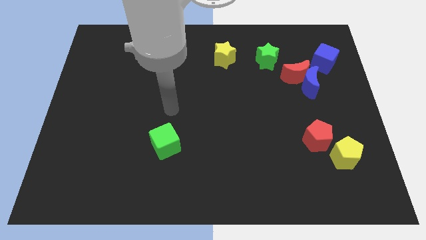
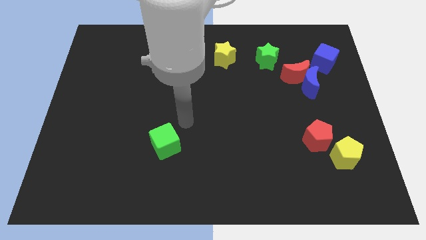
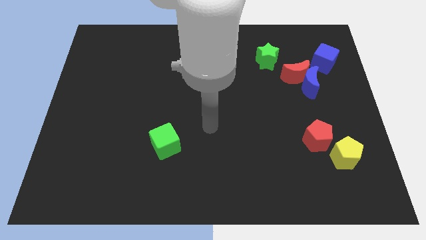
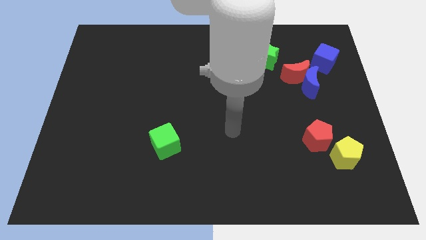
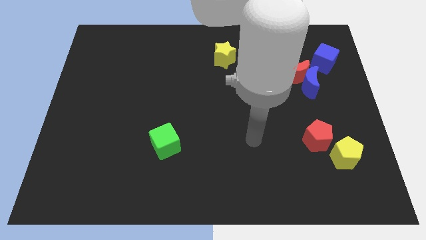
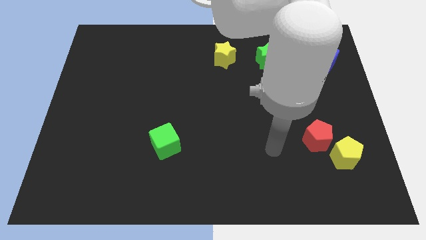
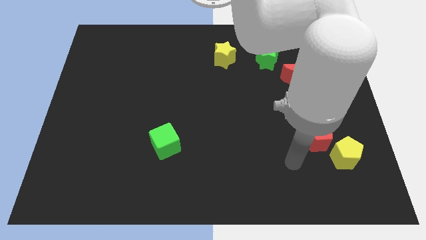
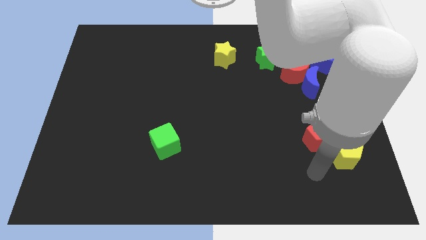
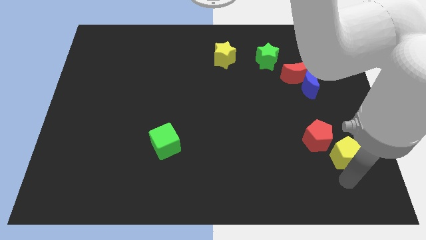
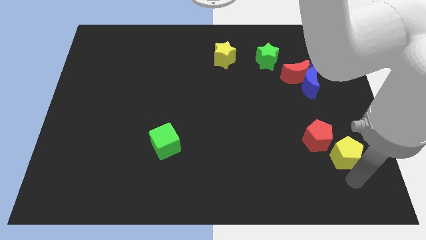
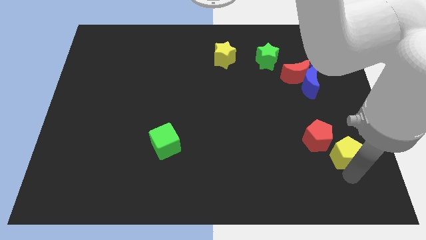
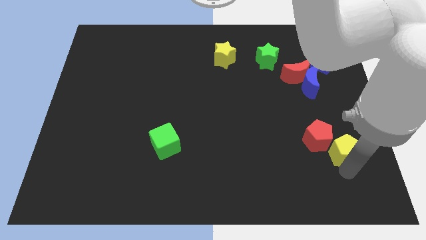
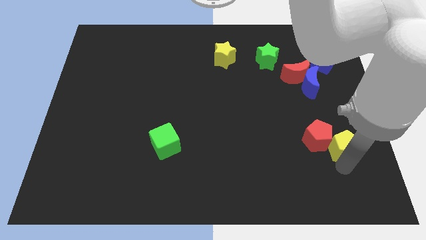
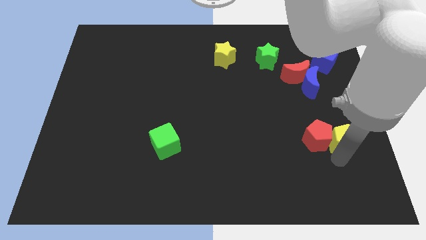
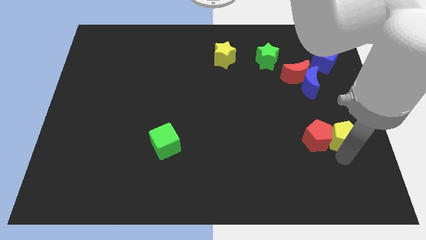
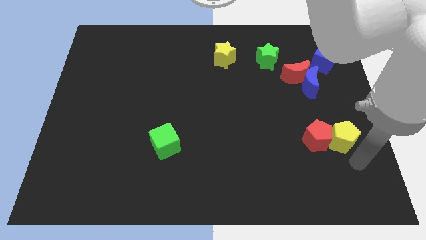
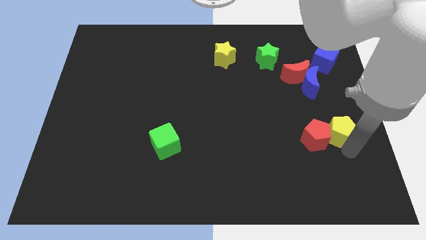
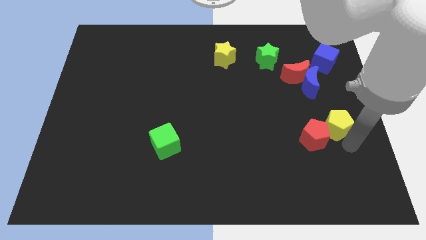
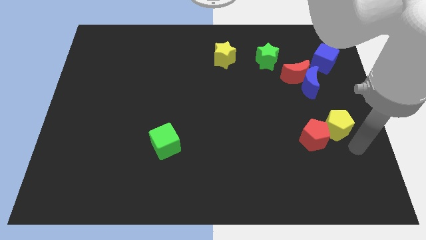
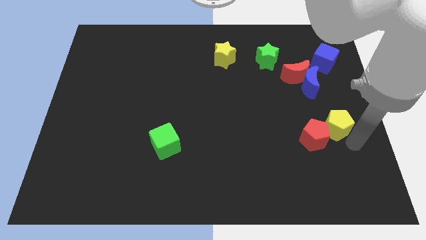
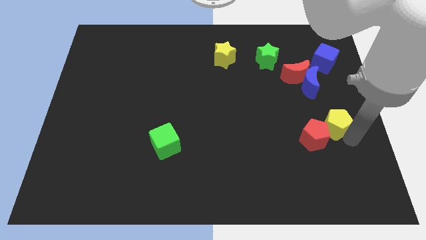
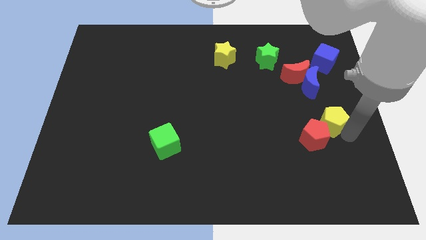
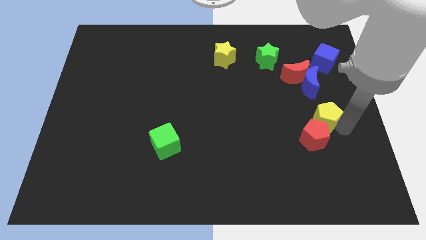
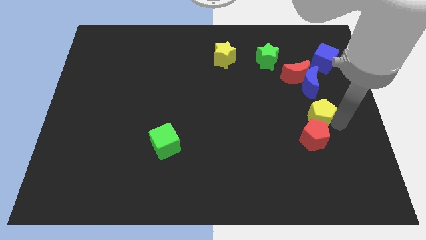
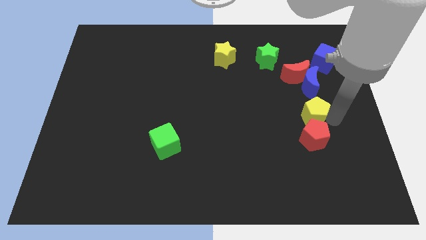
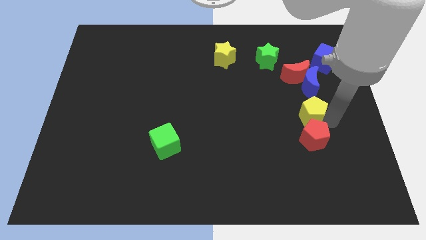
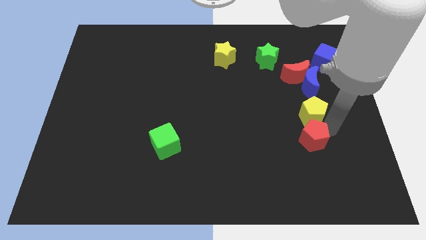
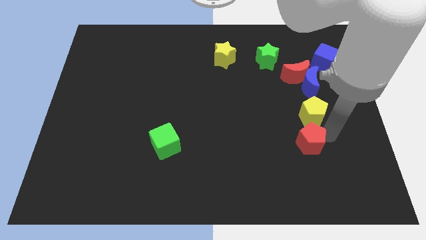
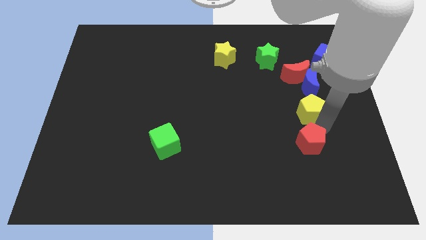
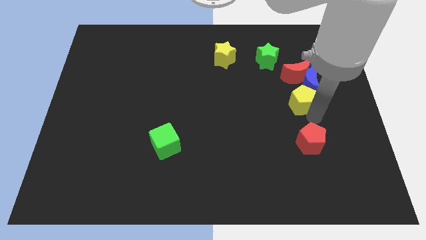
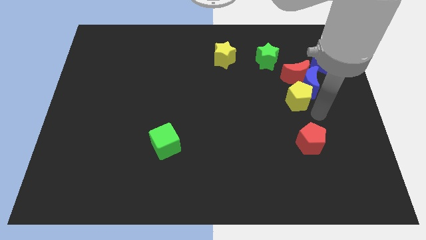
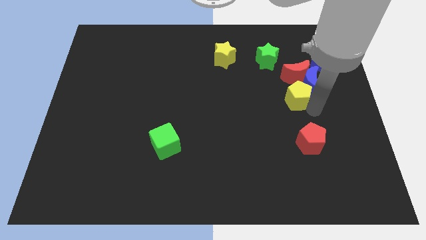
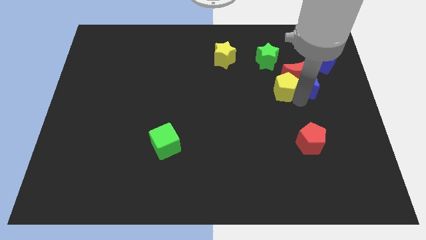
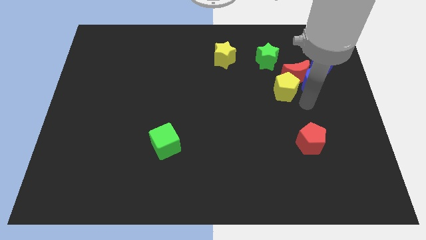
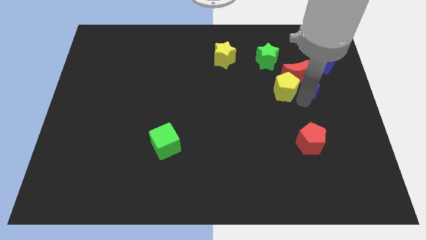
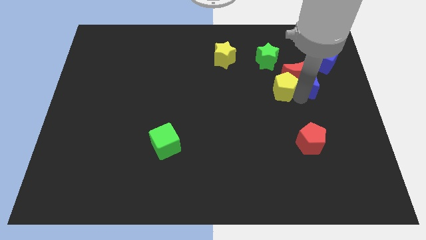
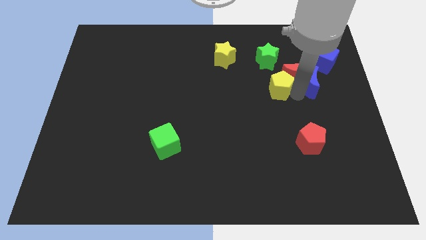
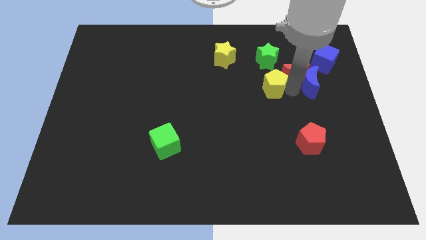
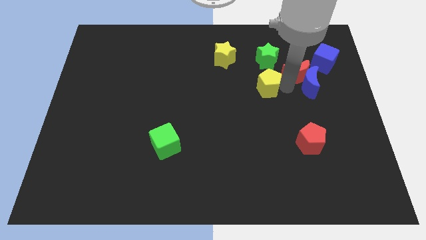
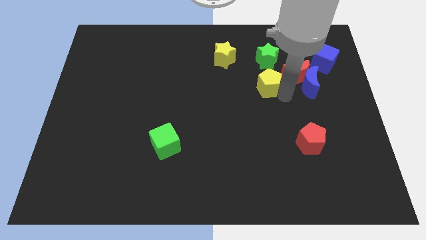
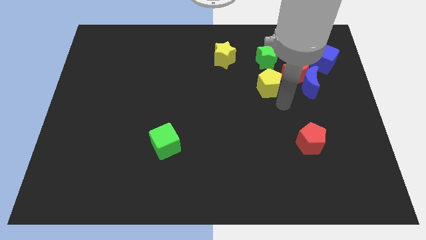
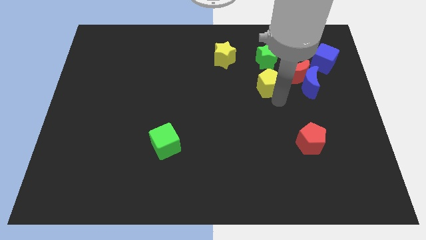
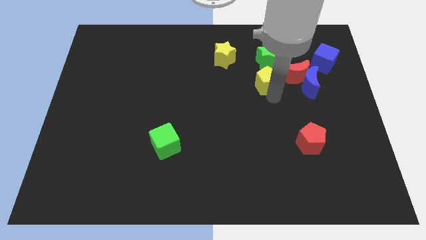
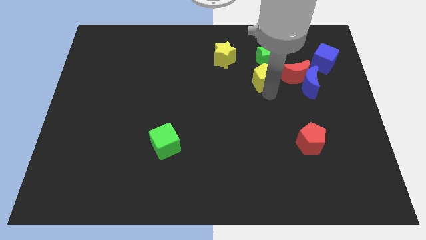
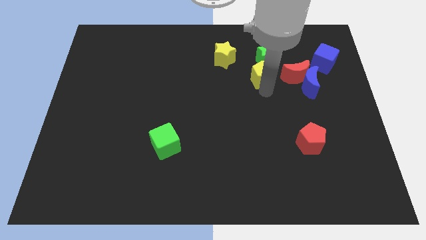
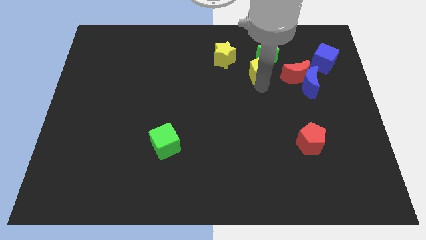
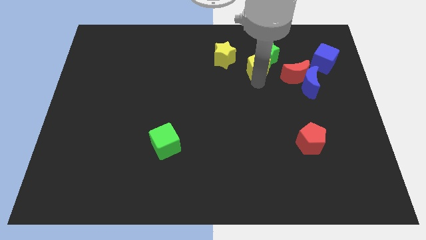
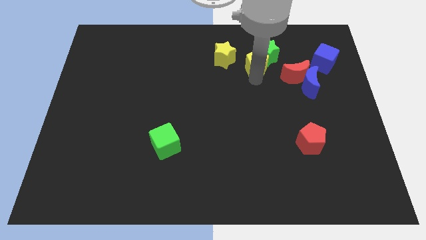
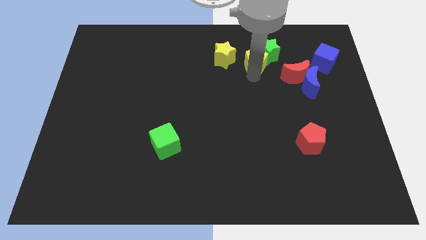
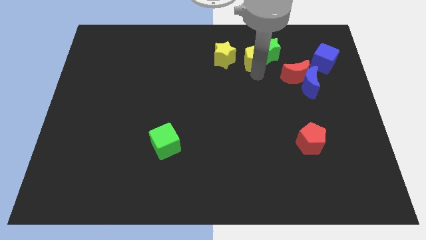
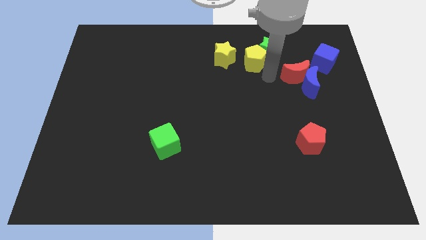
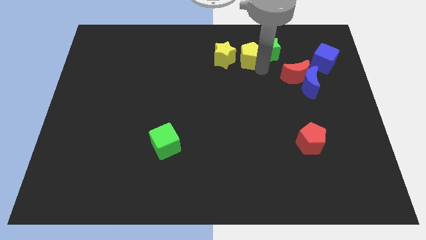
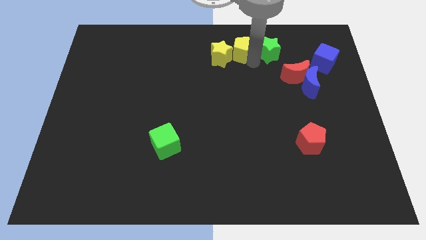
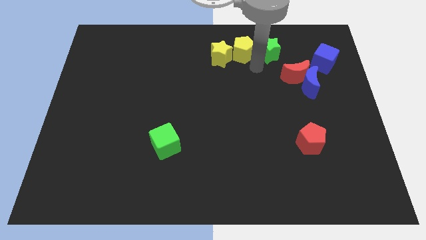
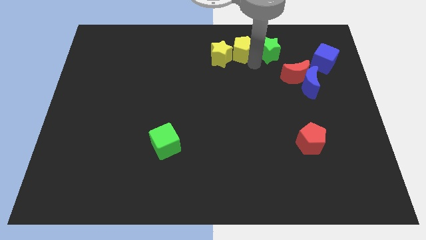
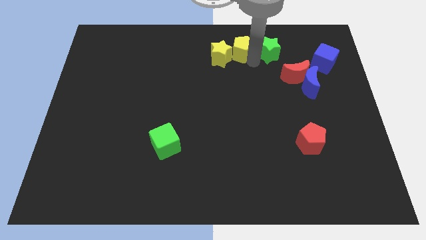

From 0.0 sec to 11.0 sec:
push the yellow pentagon to the top side

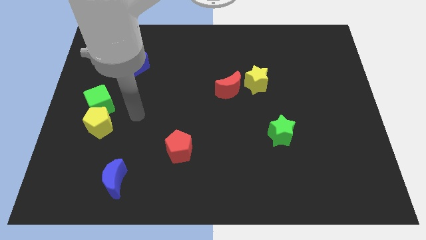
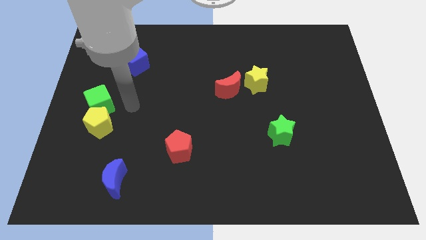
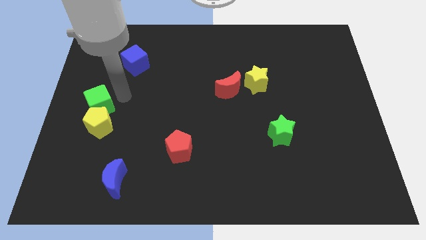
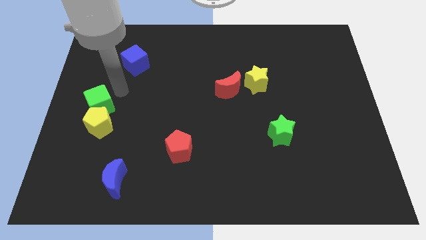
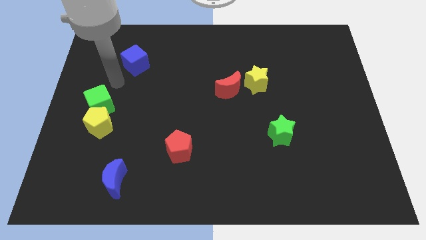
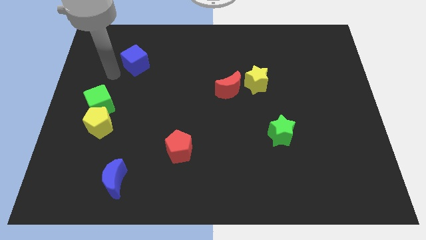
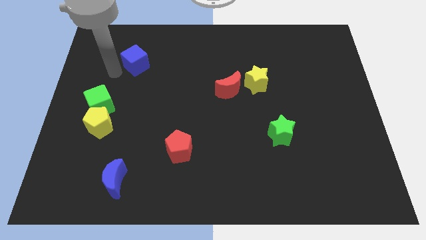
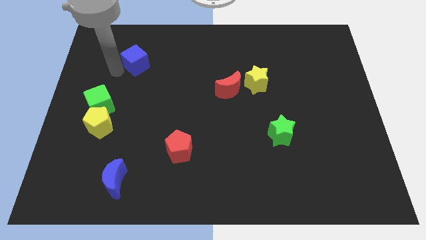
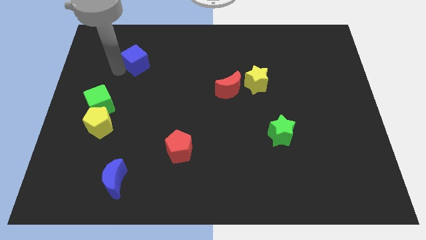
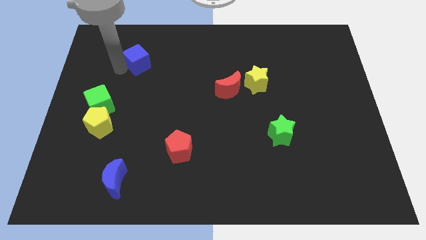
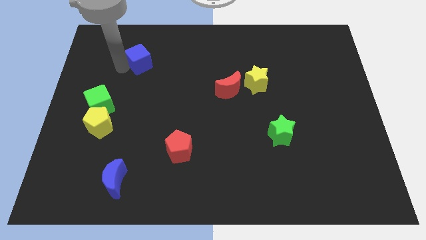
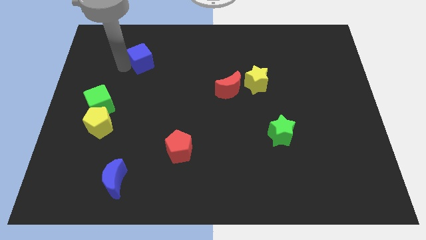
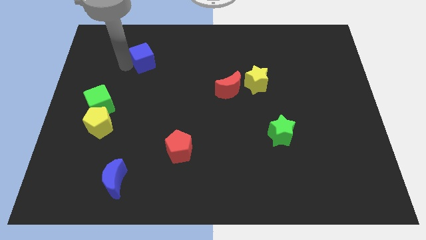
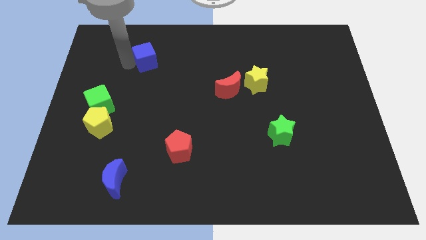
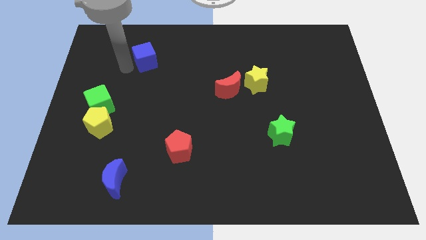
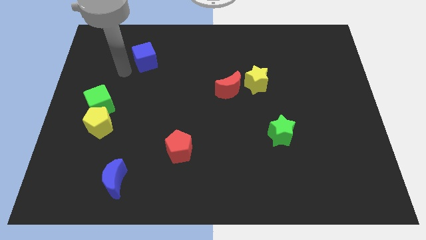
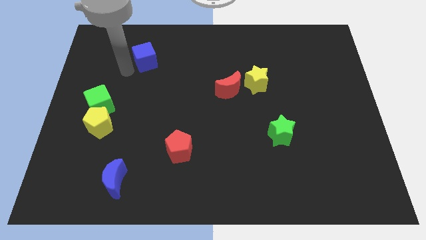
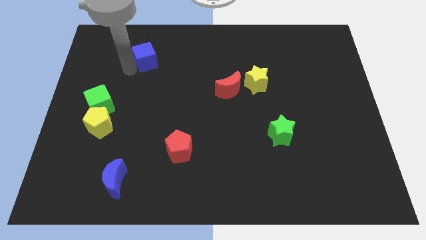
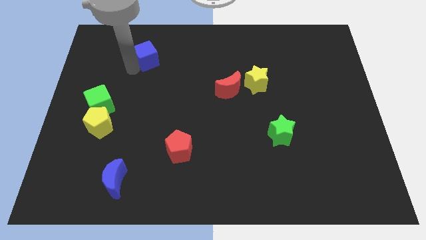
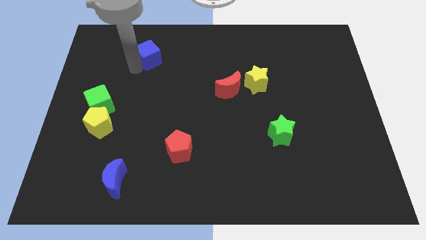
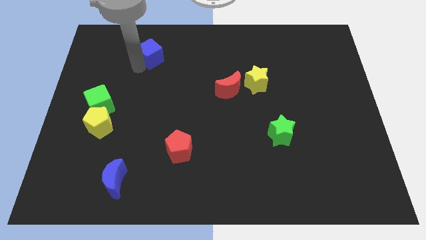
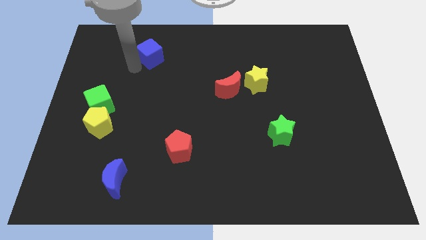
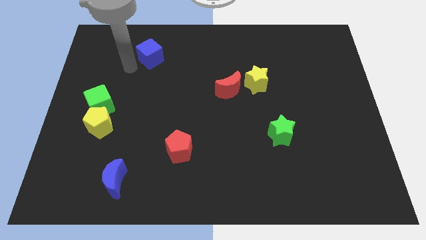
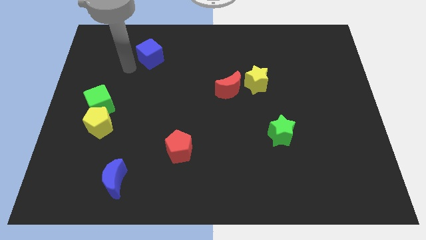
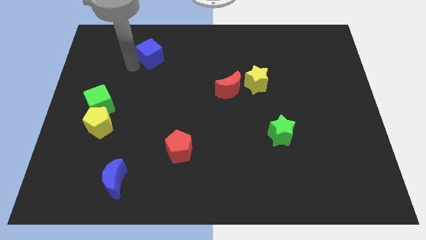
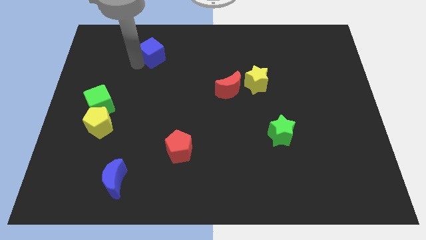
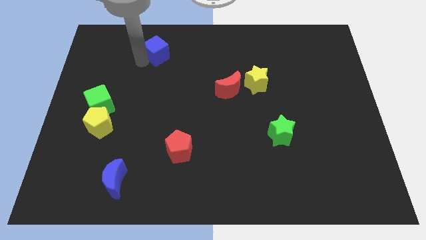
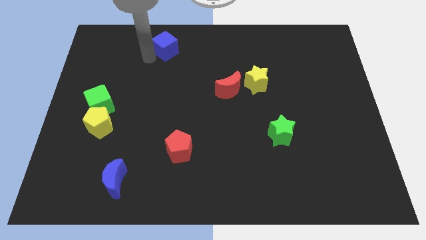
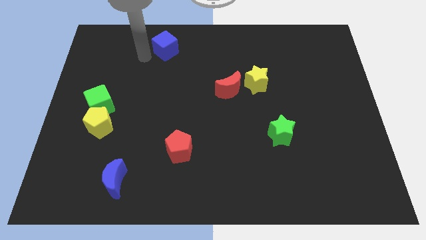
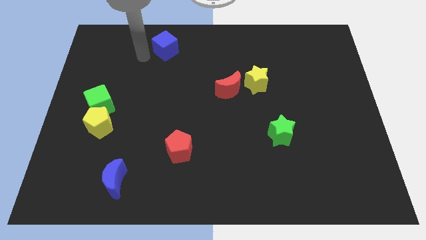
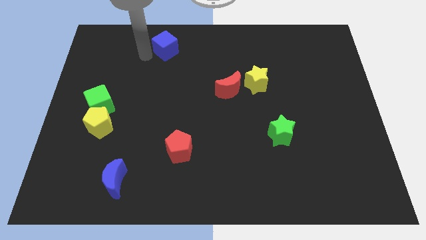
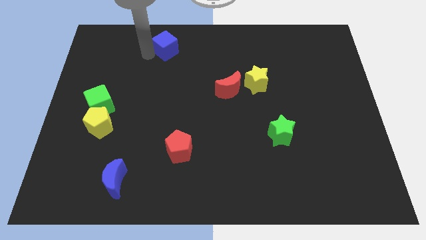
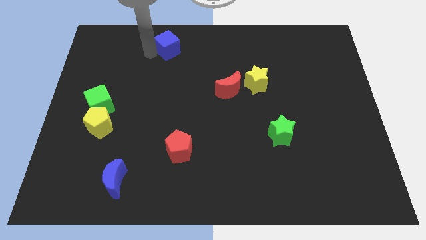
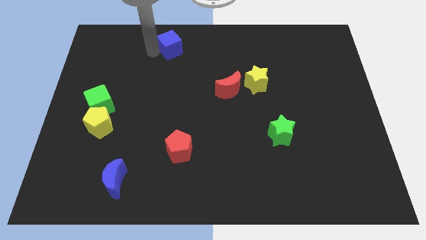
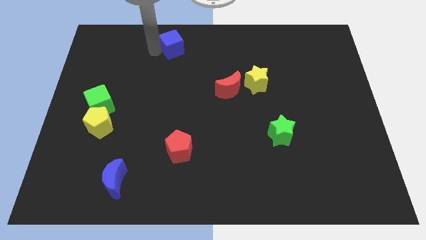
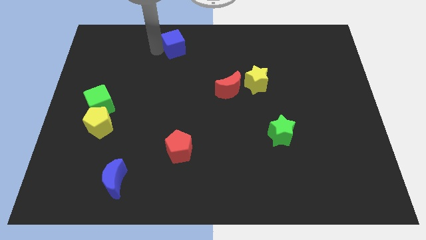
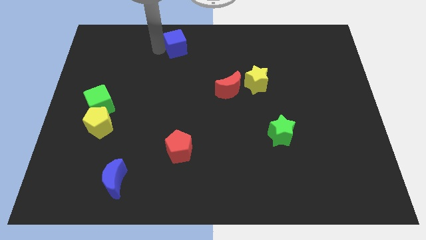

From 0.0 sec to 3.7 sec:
push the blue cube to the top side
